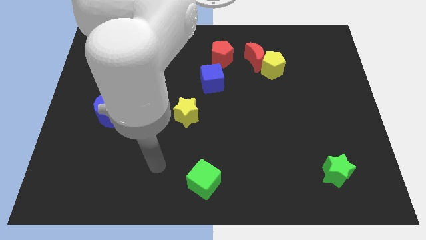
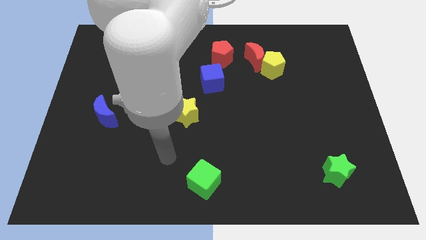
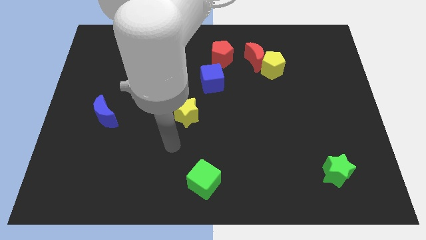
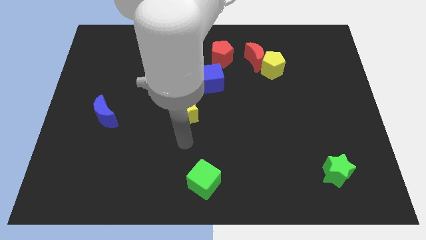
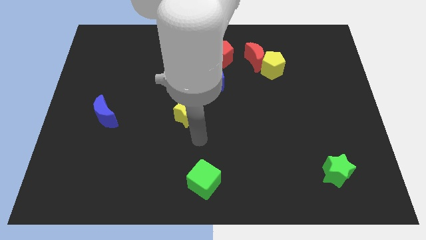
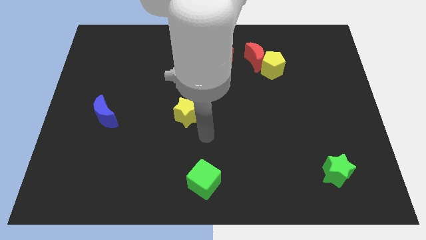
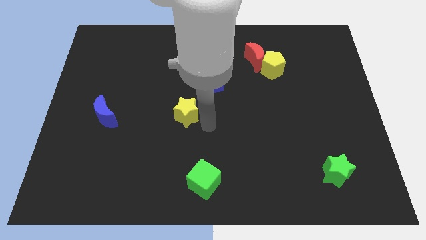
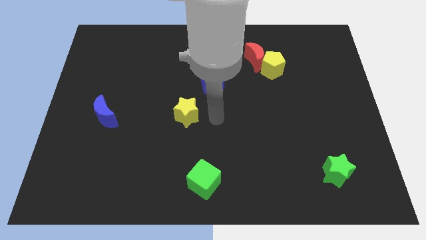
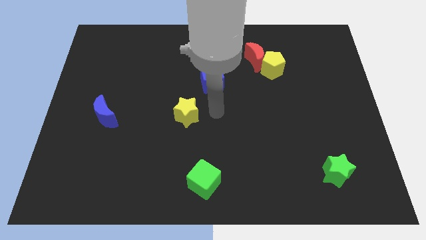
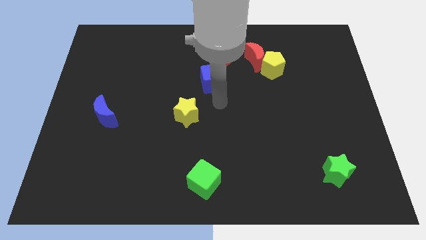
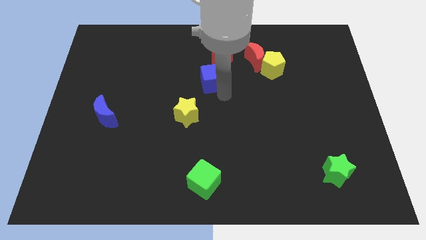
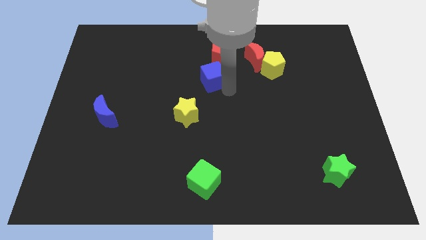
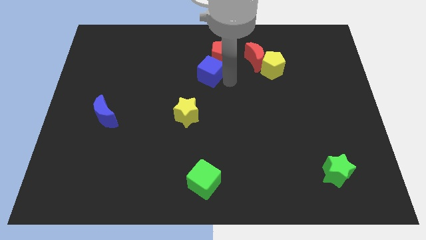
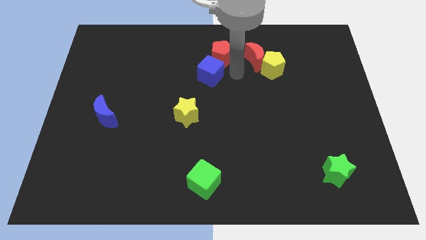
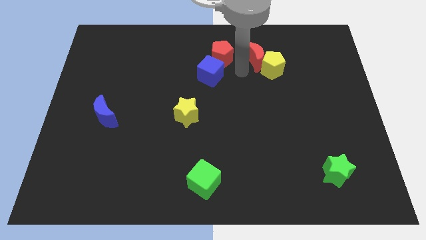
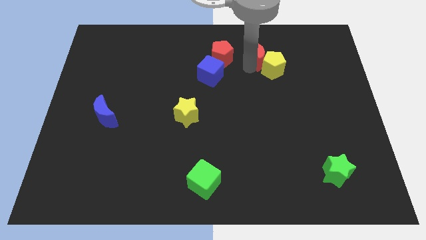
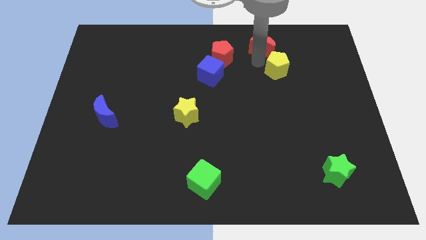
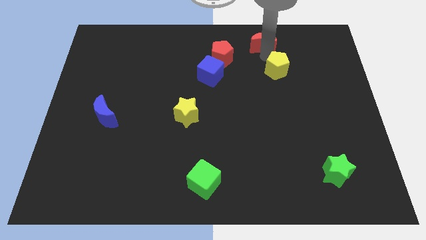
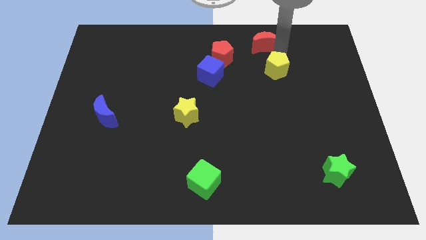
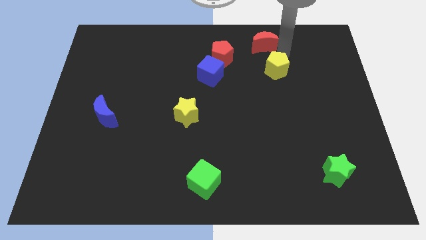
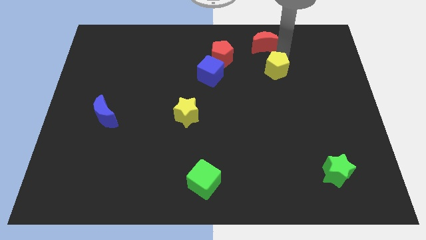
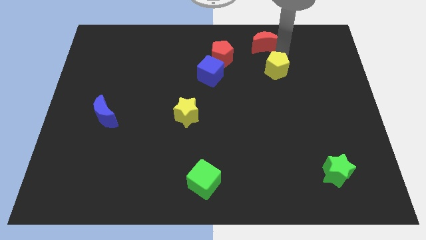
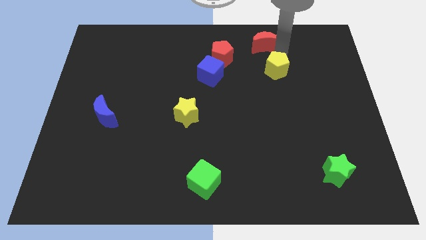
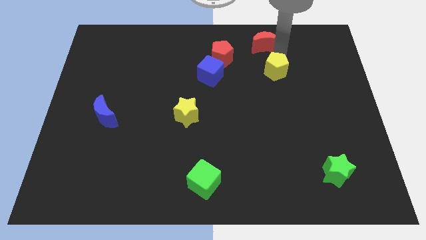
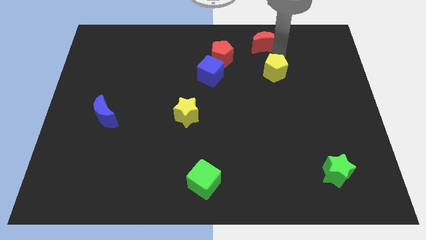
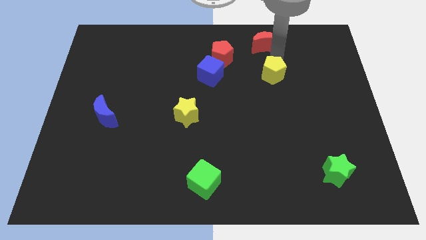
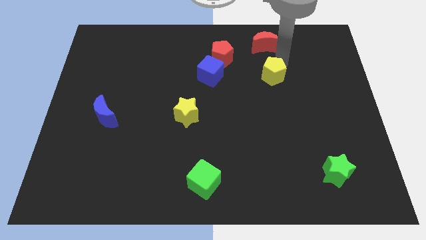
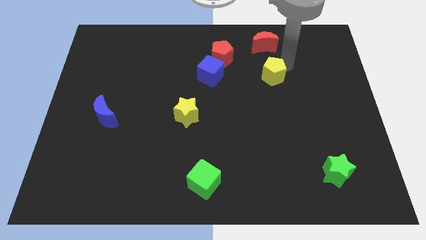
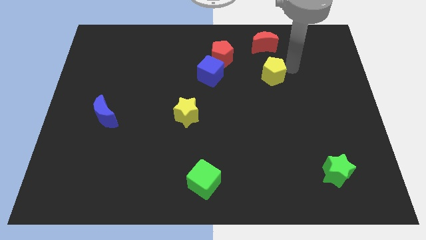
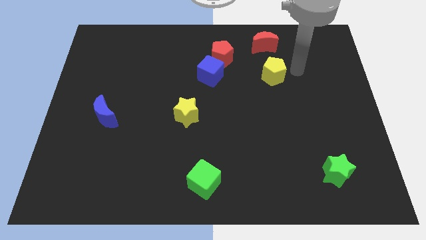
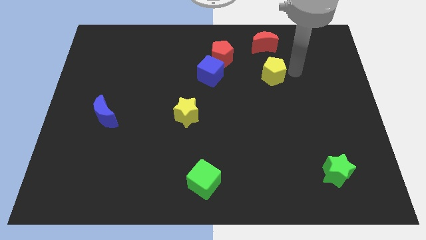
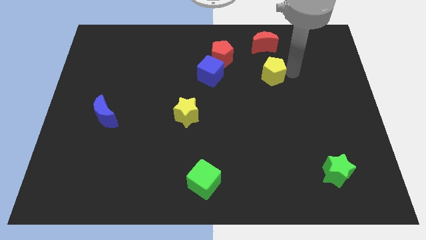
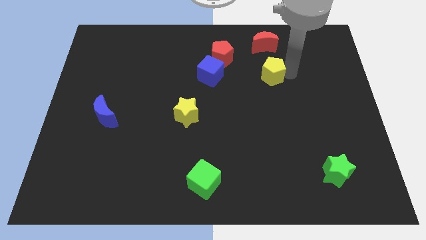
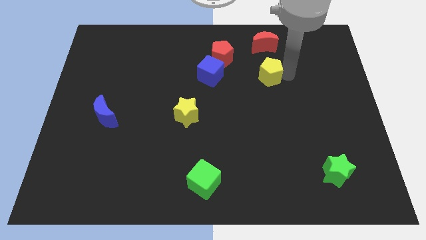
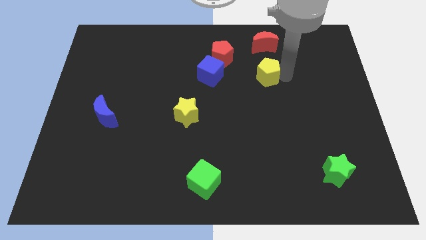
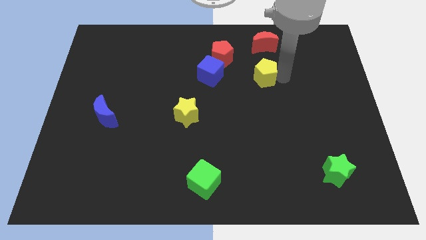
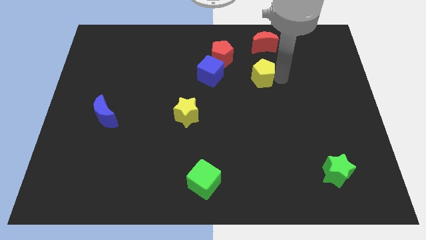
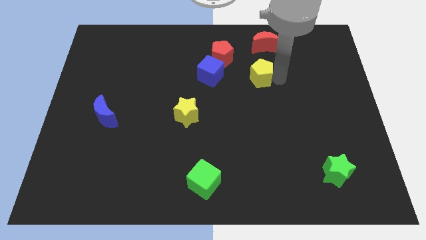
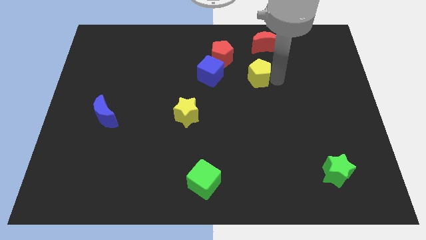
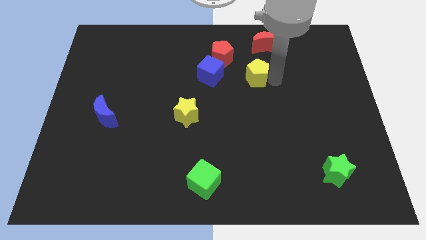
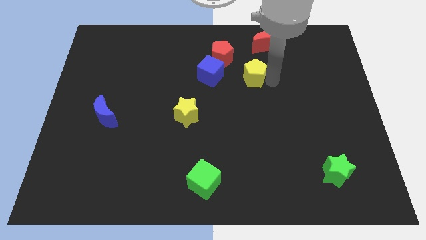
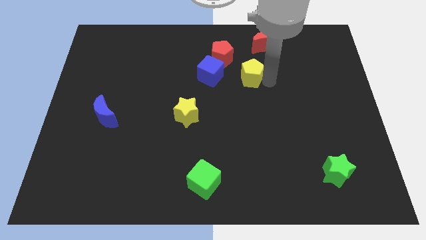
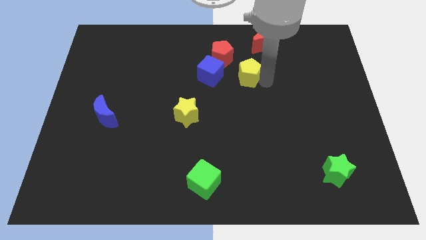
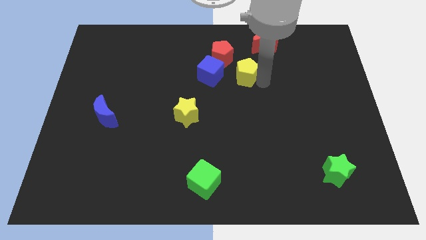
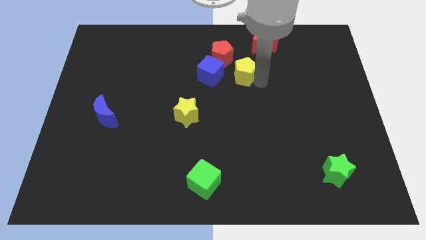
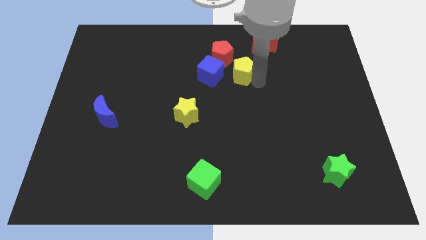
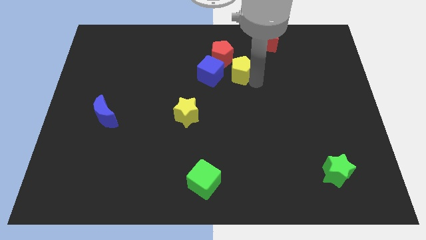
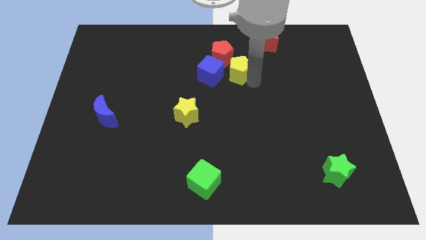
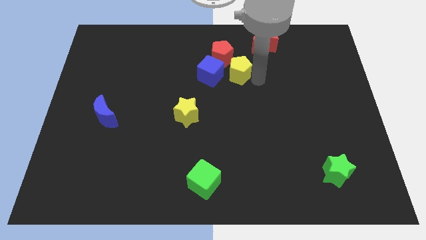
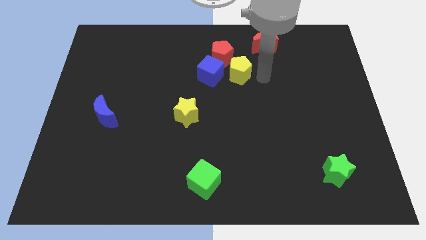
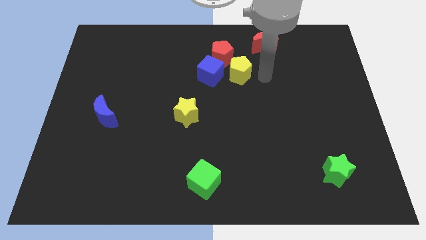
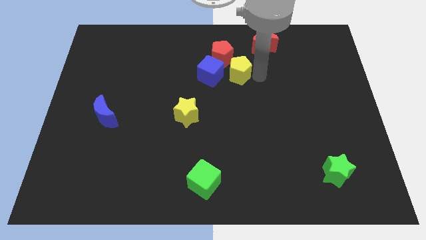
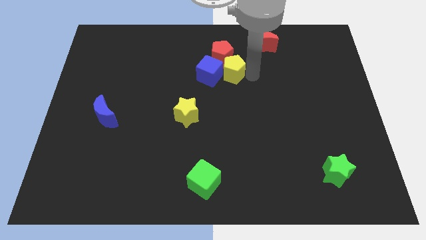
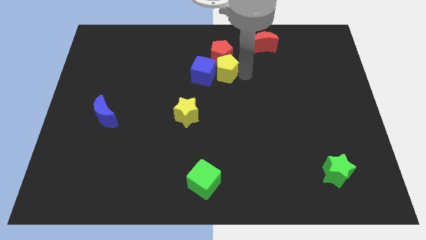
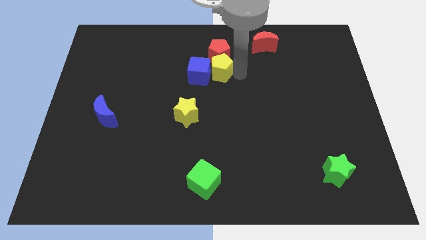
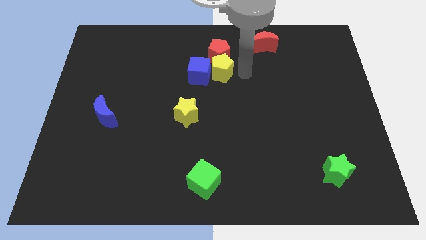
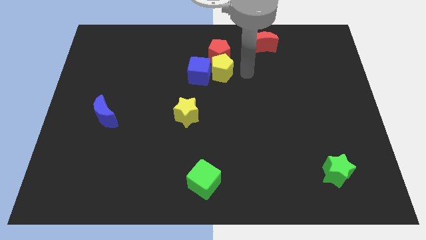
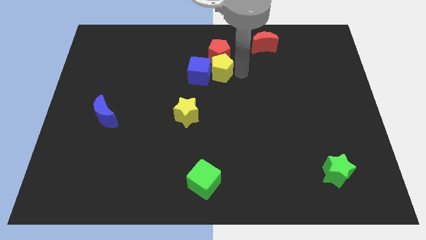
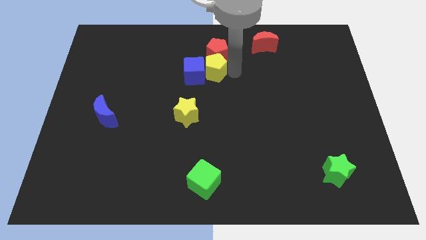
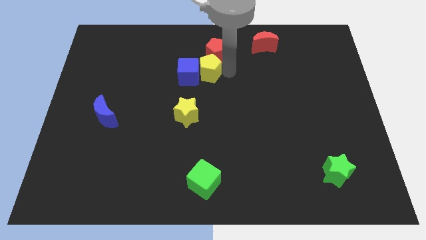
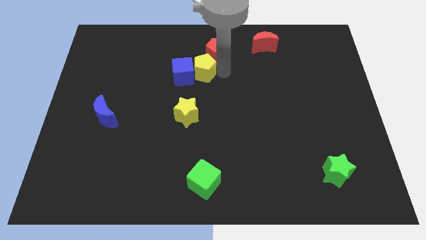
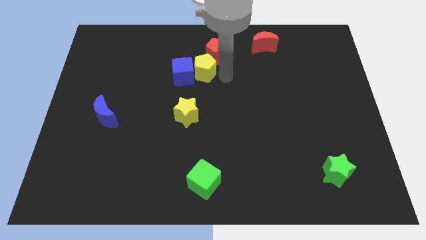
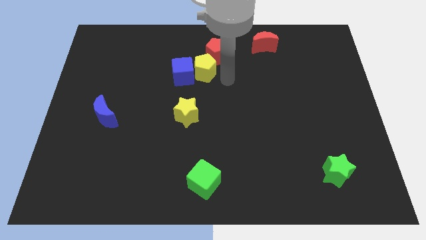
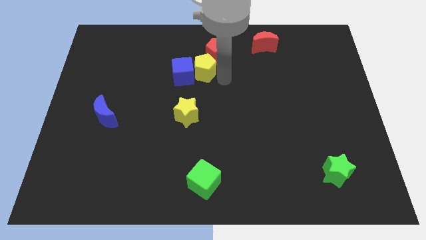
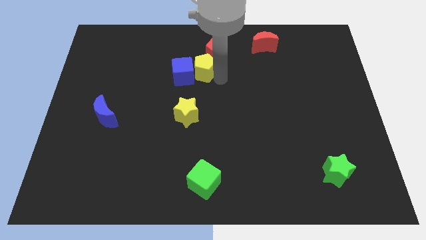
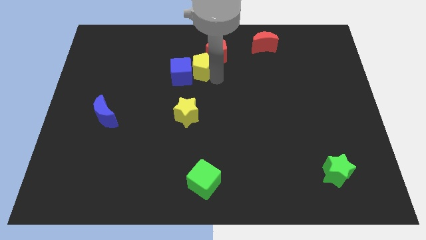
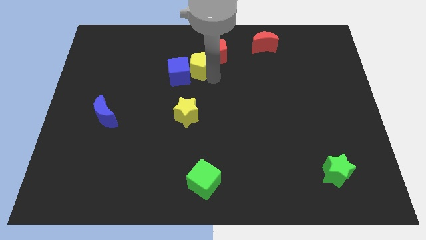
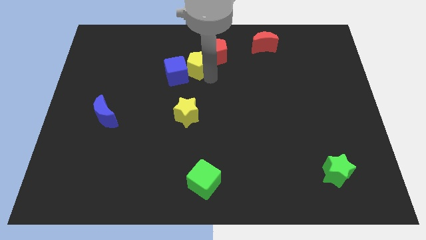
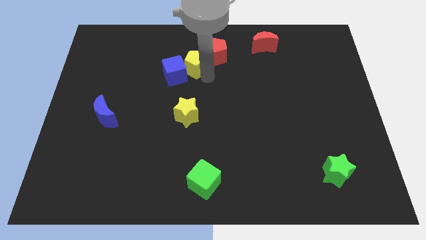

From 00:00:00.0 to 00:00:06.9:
slide the yellow pentagon to the left

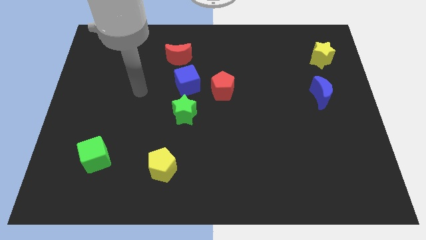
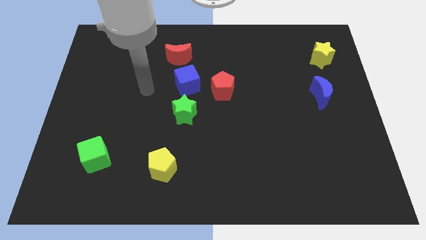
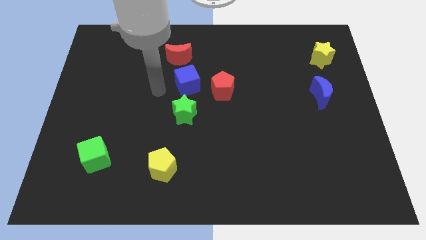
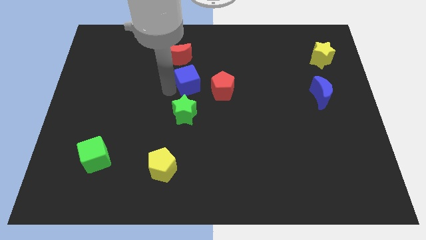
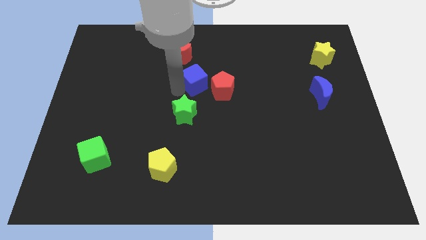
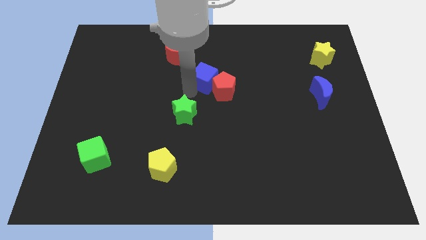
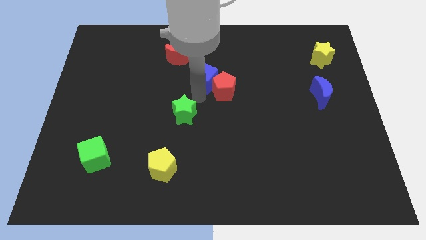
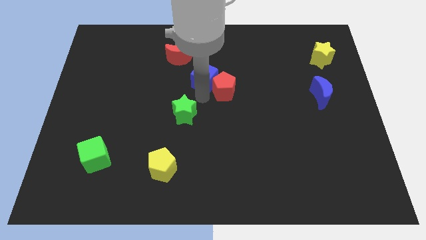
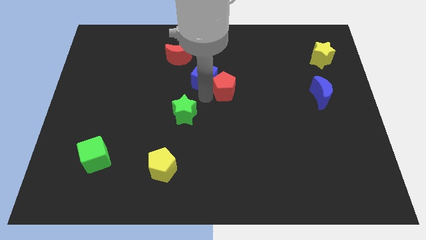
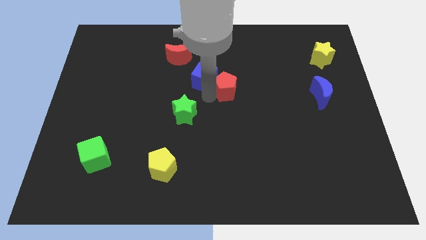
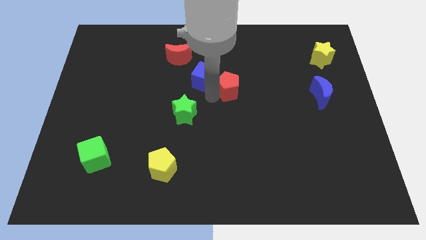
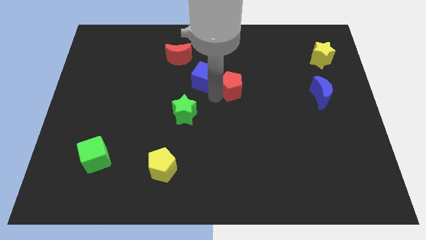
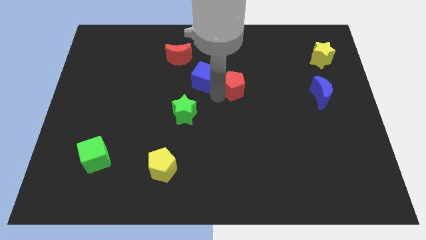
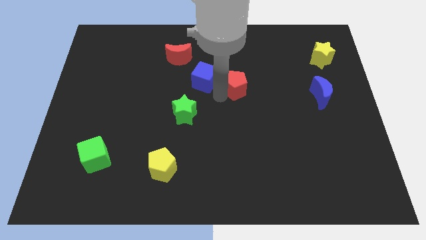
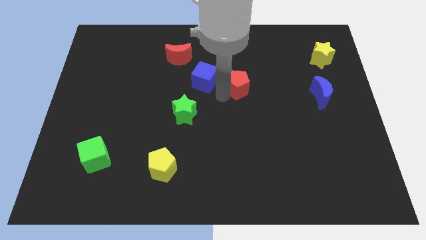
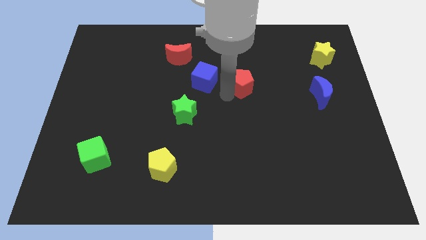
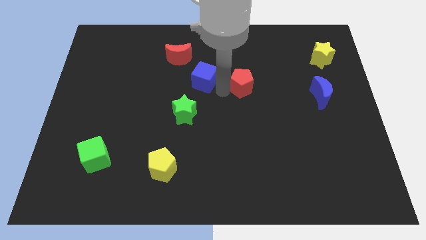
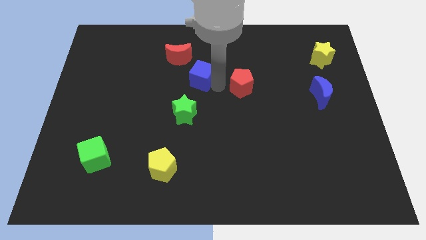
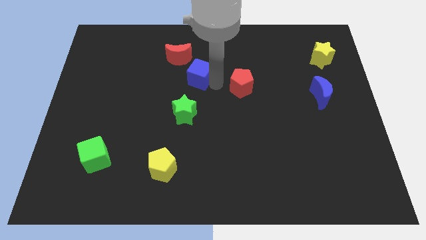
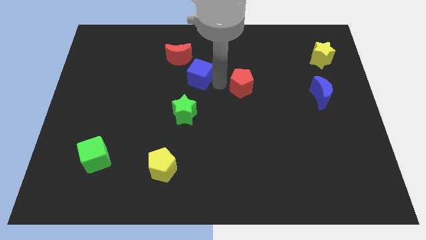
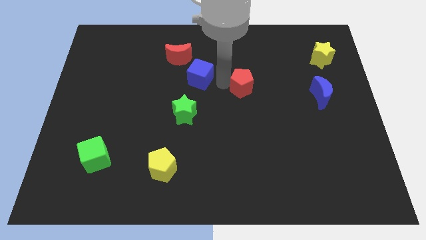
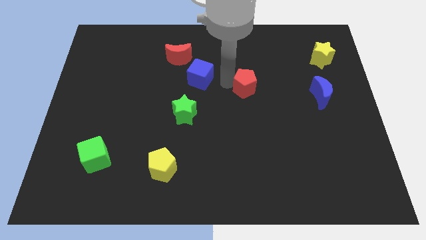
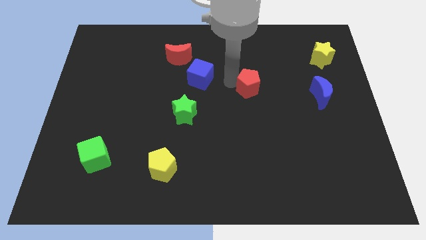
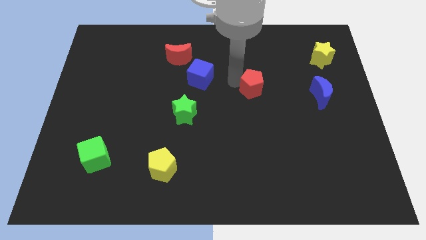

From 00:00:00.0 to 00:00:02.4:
slide the red pentagon to the right a little
